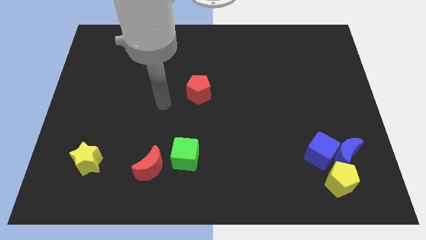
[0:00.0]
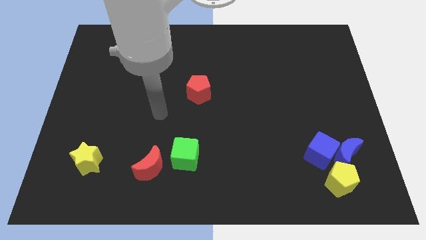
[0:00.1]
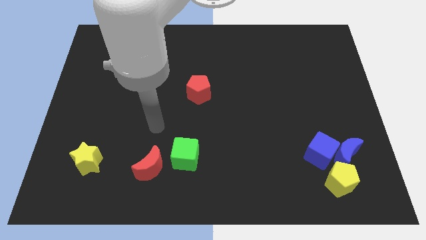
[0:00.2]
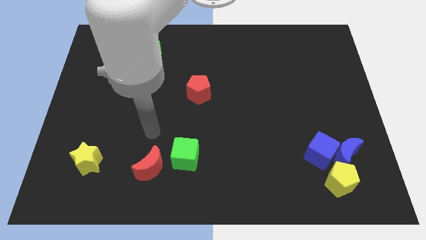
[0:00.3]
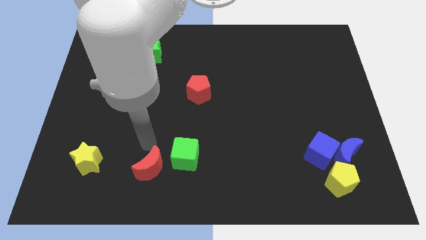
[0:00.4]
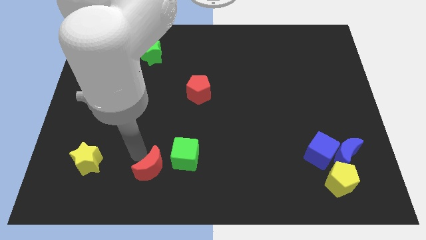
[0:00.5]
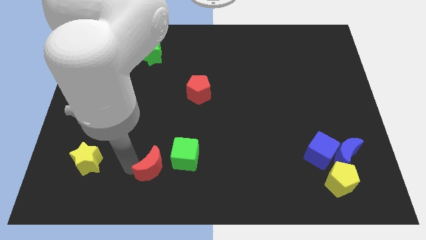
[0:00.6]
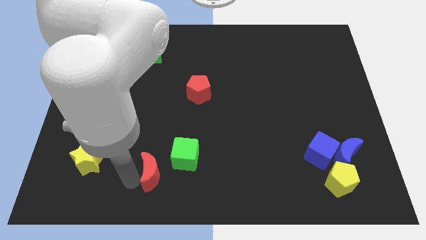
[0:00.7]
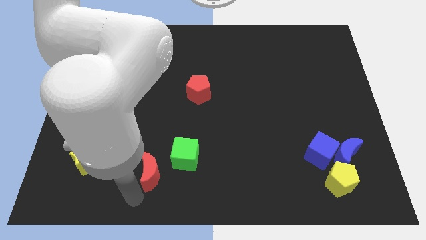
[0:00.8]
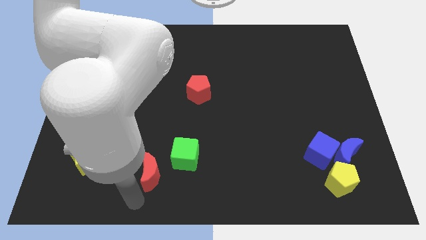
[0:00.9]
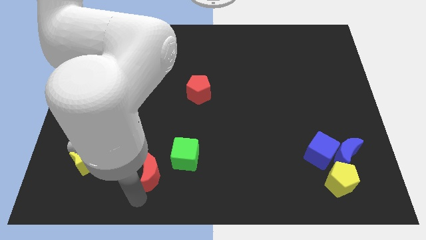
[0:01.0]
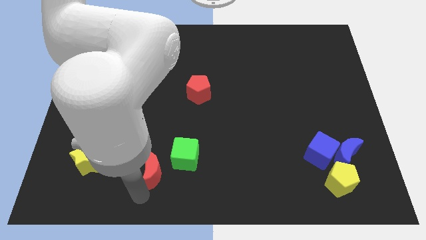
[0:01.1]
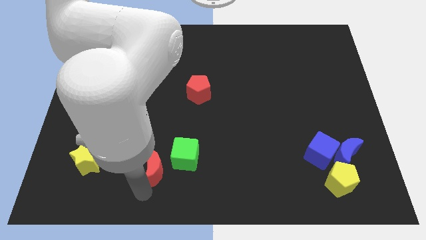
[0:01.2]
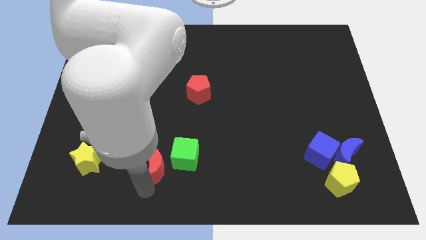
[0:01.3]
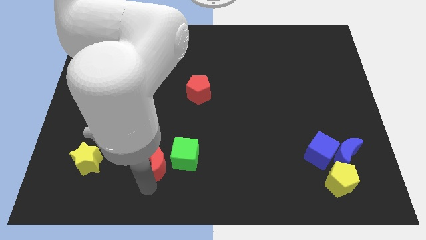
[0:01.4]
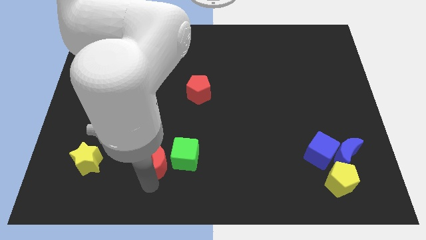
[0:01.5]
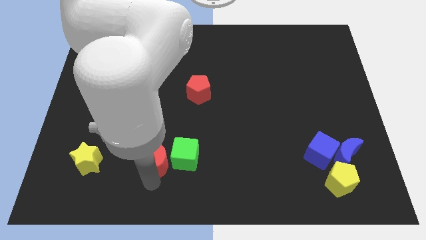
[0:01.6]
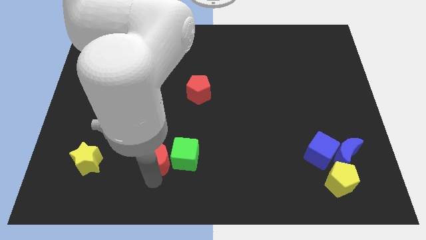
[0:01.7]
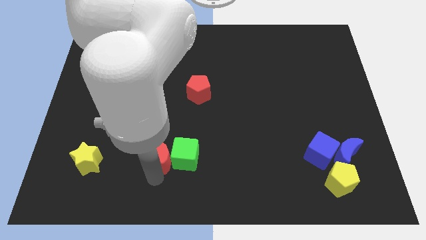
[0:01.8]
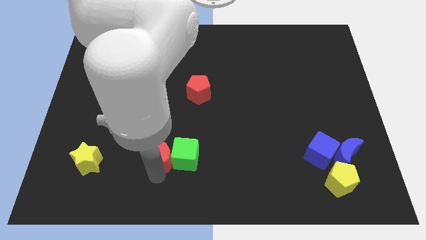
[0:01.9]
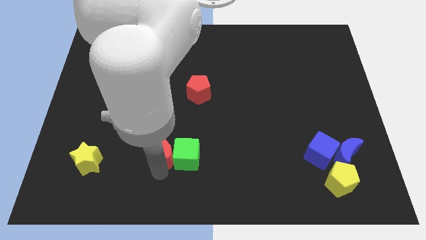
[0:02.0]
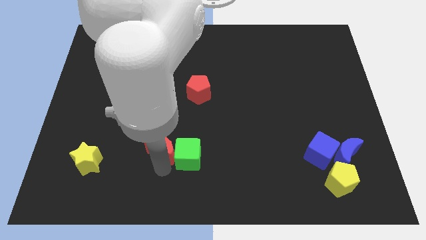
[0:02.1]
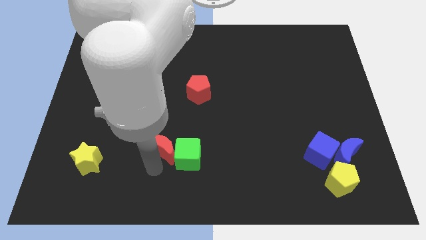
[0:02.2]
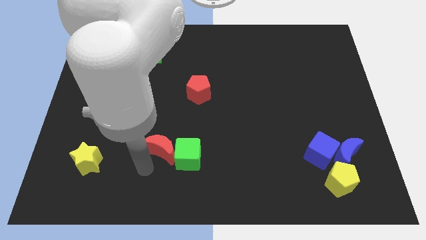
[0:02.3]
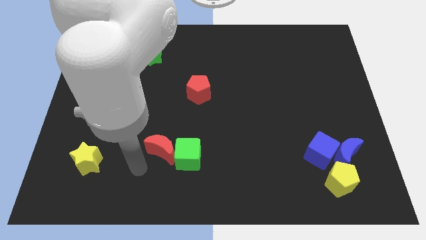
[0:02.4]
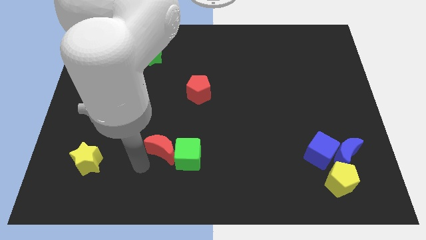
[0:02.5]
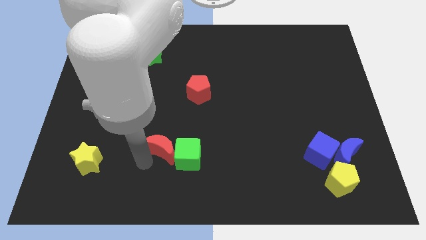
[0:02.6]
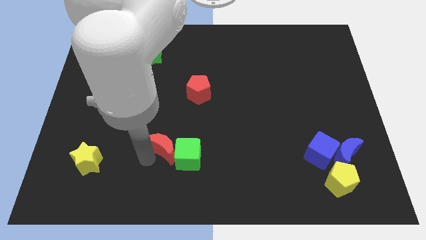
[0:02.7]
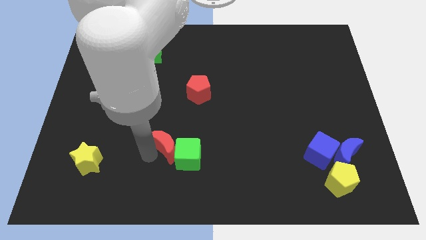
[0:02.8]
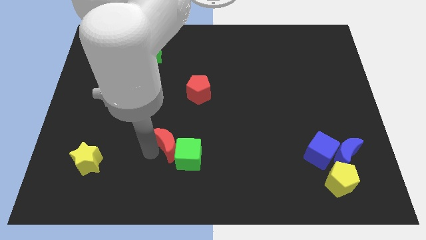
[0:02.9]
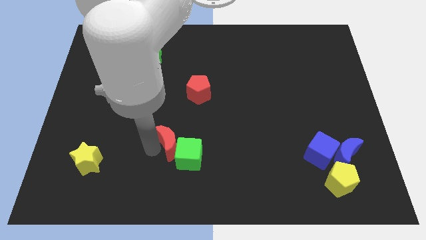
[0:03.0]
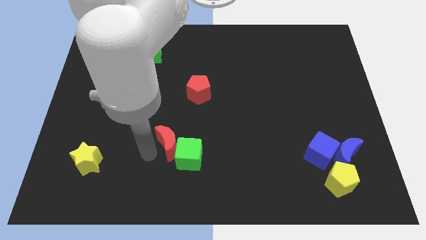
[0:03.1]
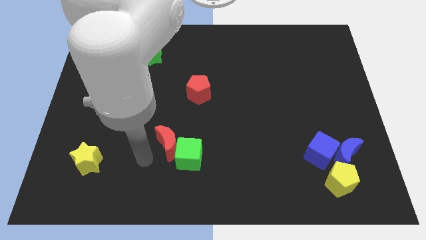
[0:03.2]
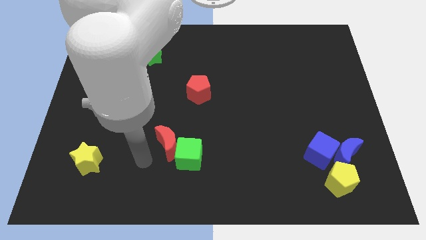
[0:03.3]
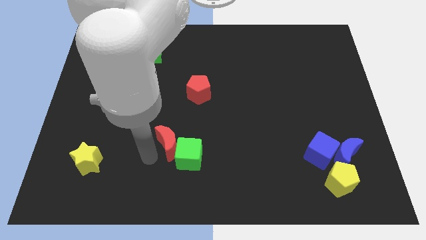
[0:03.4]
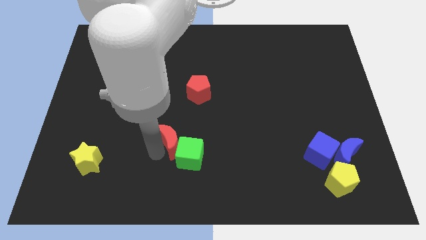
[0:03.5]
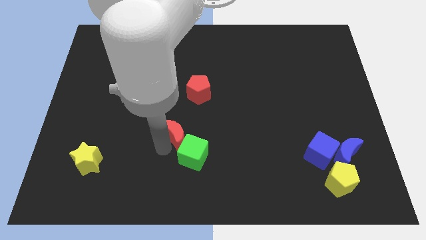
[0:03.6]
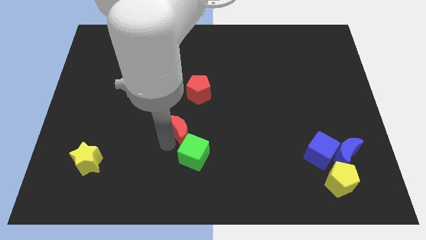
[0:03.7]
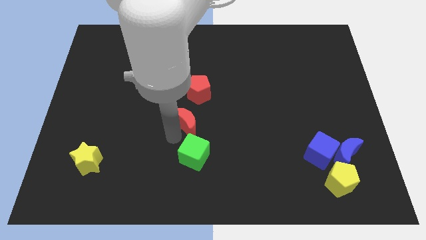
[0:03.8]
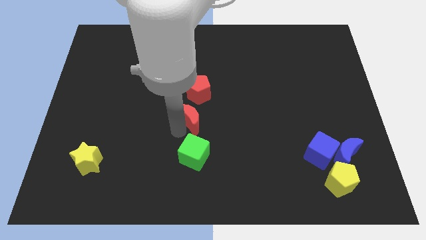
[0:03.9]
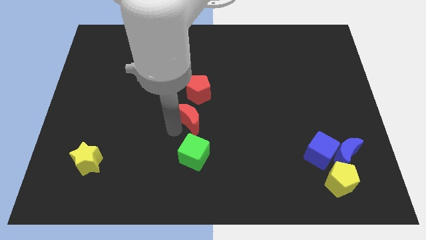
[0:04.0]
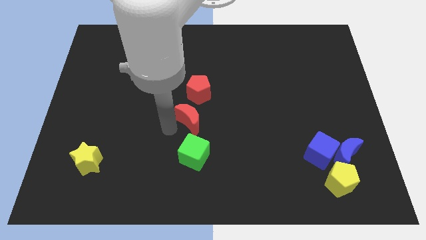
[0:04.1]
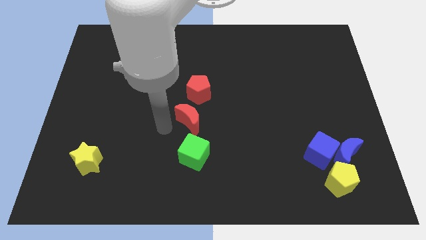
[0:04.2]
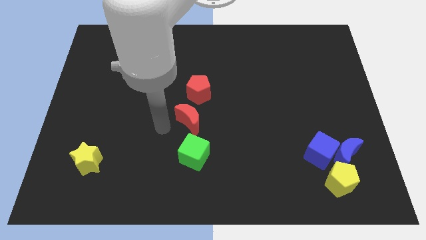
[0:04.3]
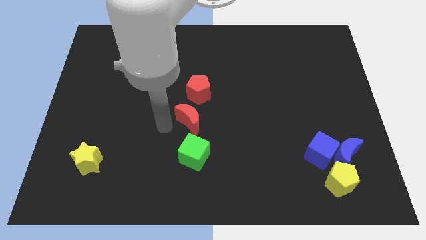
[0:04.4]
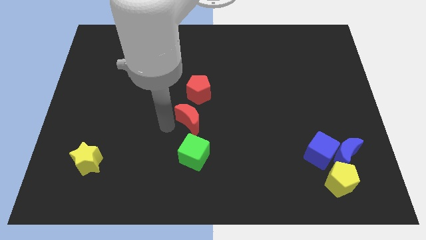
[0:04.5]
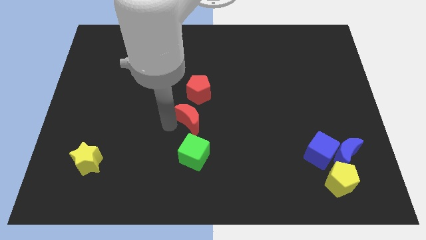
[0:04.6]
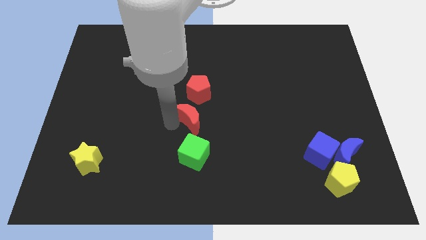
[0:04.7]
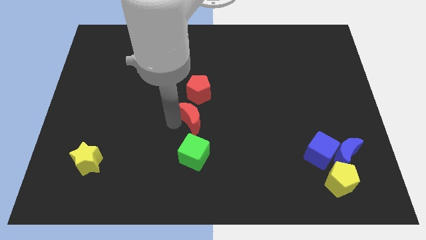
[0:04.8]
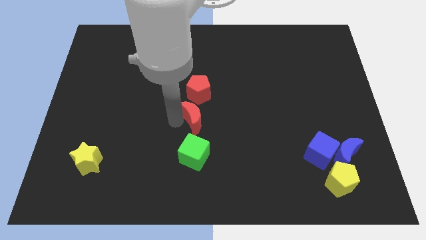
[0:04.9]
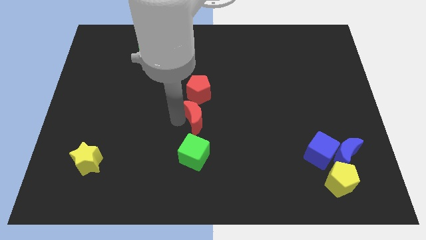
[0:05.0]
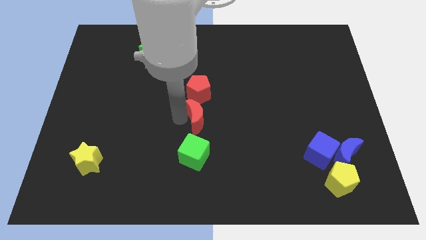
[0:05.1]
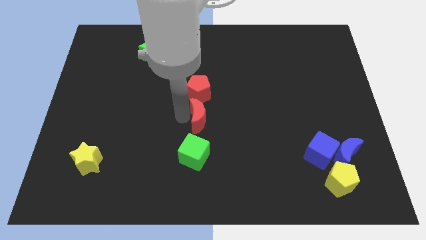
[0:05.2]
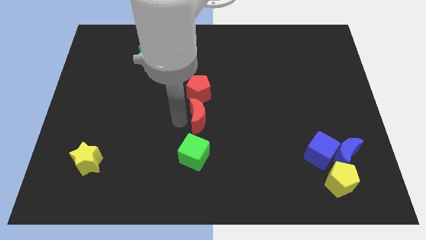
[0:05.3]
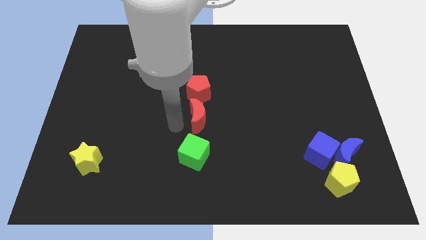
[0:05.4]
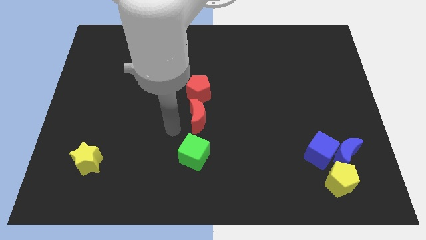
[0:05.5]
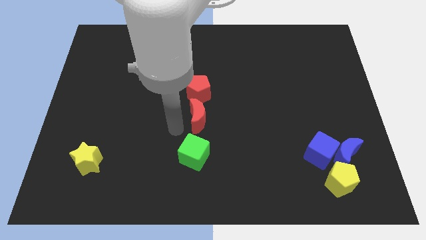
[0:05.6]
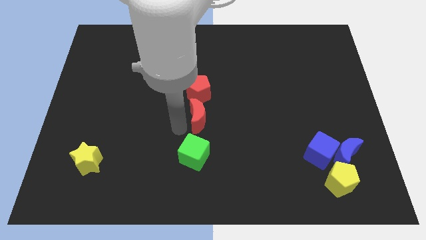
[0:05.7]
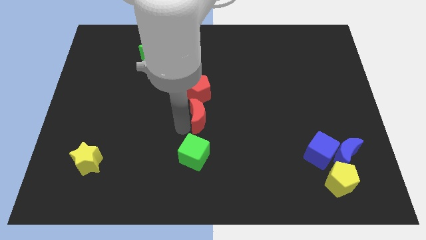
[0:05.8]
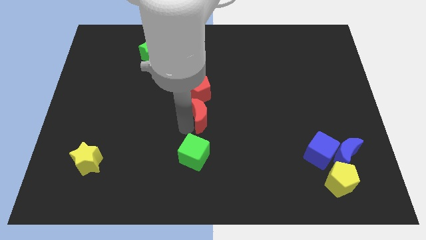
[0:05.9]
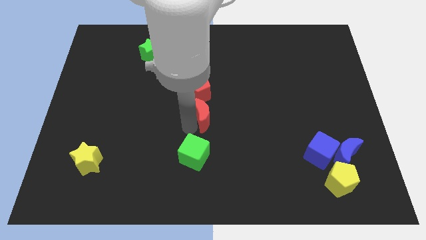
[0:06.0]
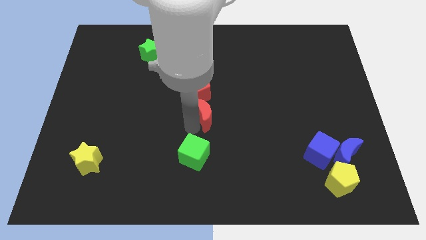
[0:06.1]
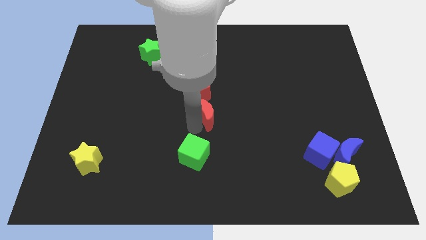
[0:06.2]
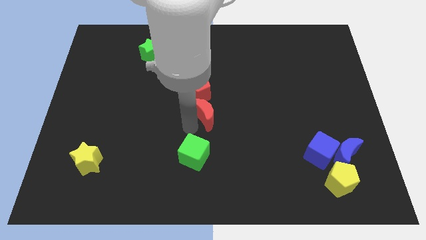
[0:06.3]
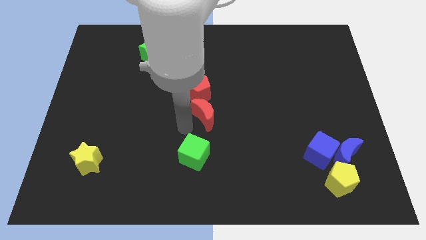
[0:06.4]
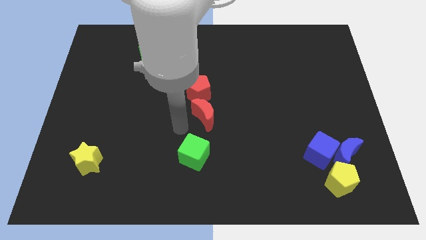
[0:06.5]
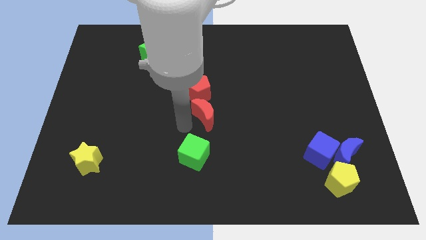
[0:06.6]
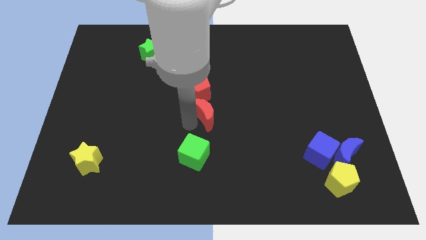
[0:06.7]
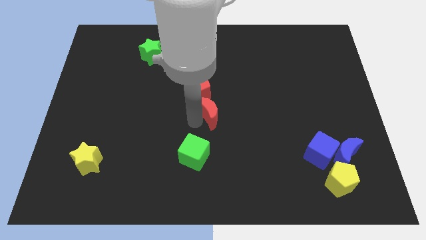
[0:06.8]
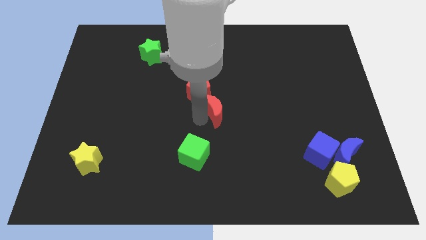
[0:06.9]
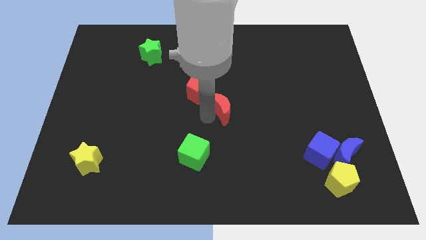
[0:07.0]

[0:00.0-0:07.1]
slide the red moon up and to the right diagonally

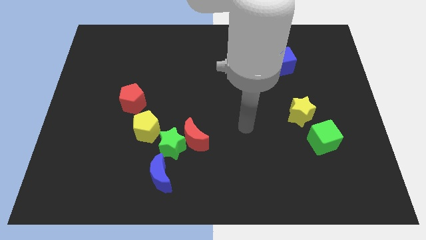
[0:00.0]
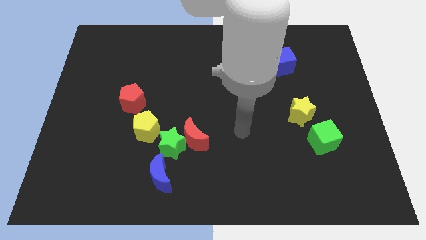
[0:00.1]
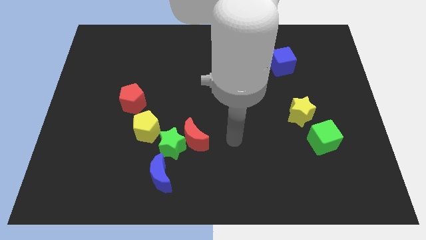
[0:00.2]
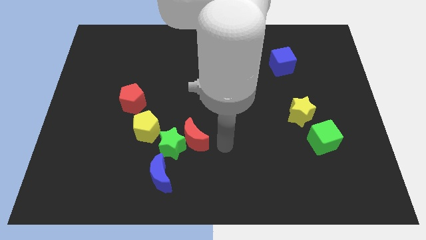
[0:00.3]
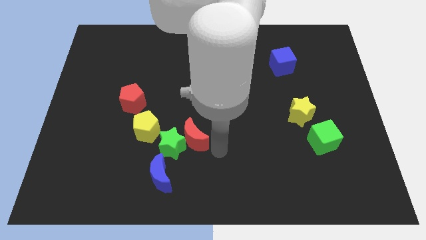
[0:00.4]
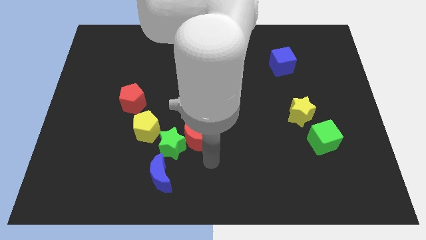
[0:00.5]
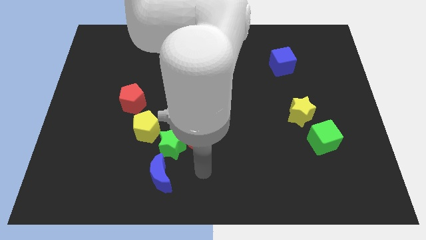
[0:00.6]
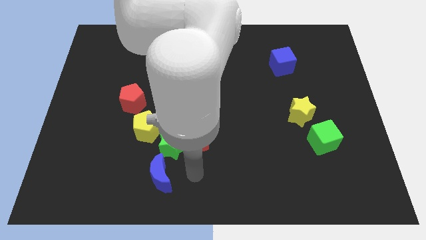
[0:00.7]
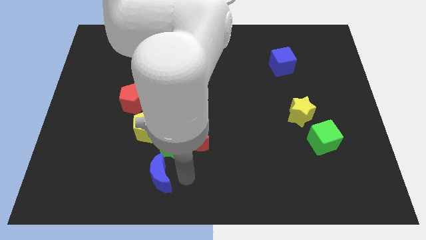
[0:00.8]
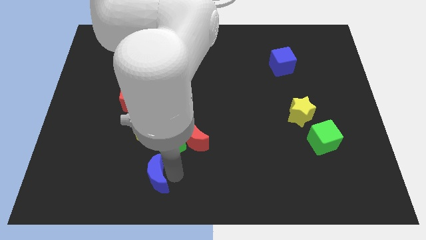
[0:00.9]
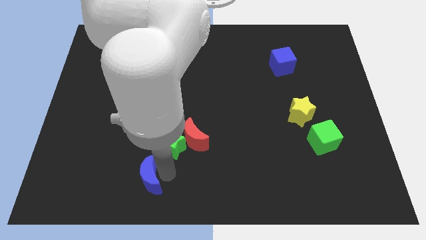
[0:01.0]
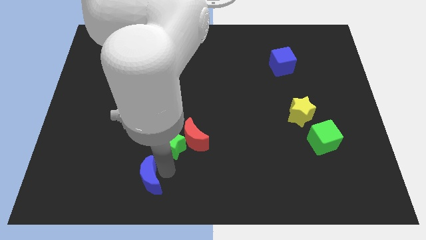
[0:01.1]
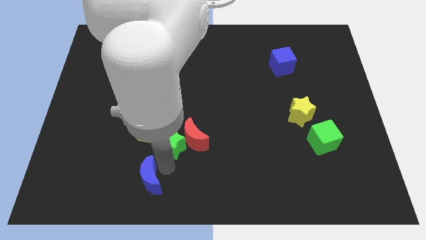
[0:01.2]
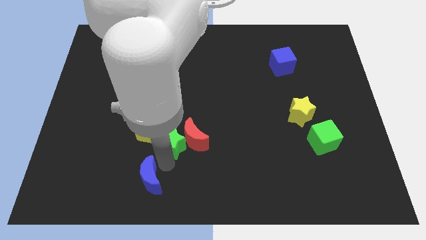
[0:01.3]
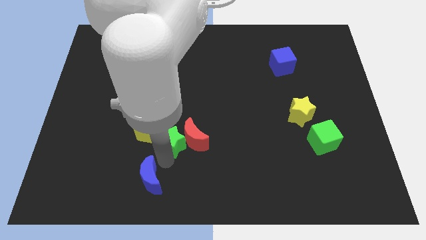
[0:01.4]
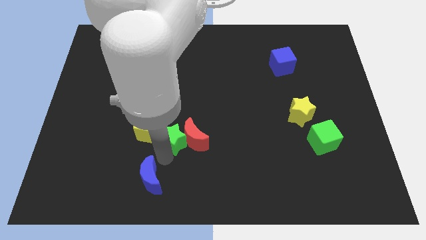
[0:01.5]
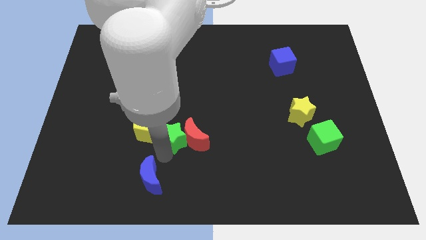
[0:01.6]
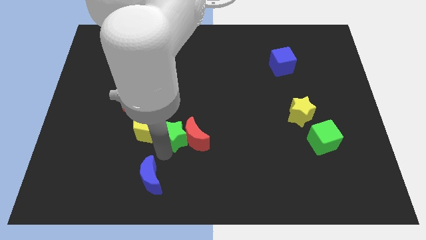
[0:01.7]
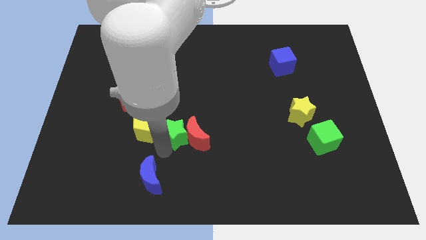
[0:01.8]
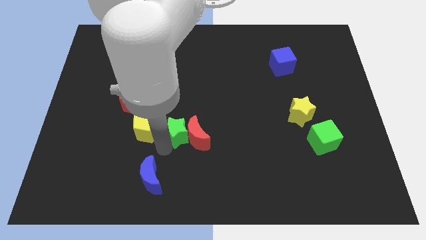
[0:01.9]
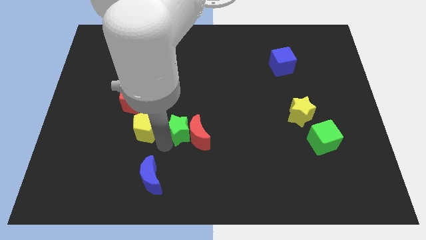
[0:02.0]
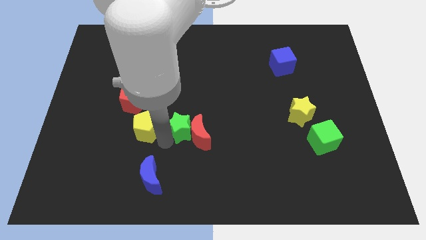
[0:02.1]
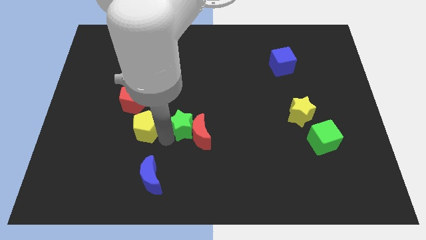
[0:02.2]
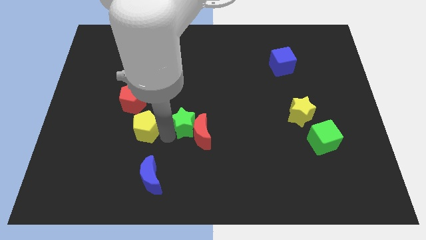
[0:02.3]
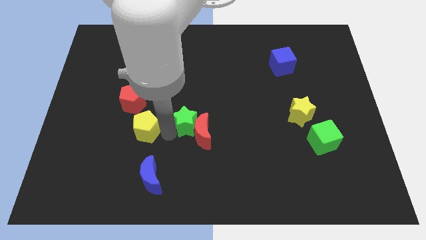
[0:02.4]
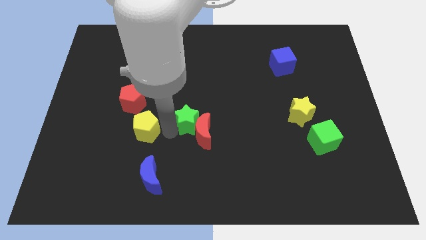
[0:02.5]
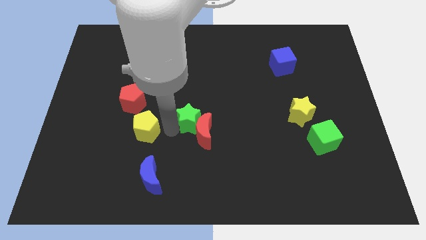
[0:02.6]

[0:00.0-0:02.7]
slightly slide the green star upwards and right diagonally
